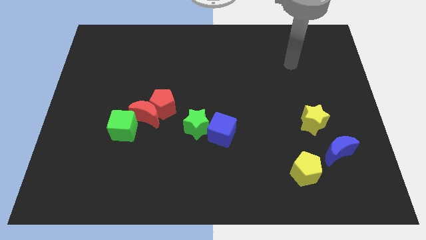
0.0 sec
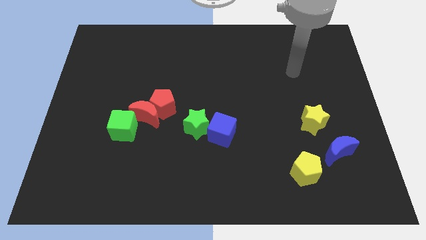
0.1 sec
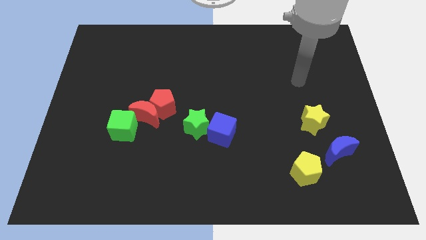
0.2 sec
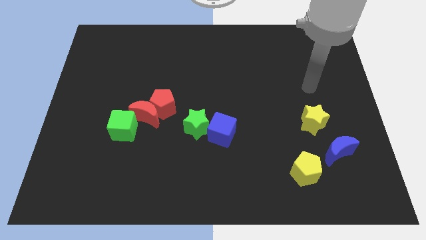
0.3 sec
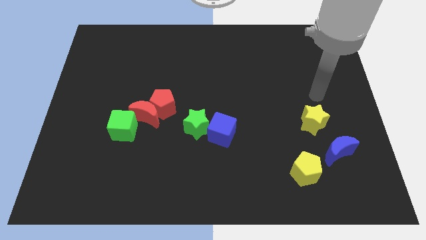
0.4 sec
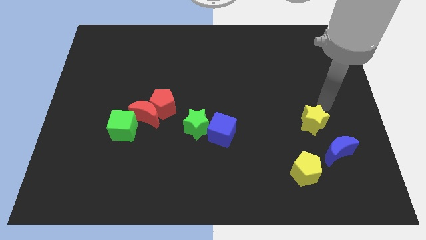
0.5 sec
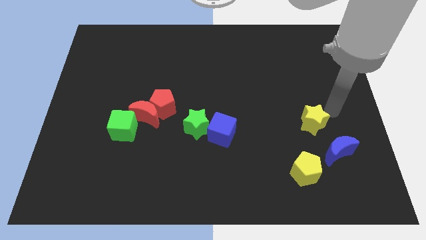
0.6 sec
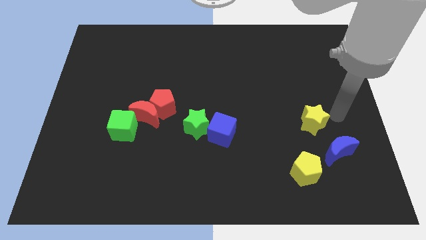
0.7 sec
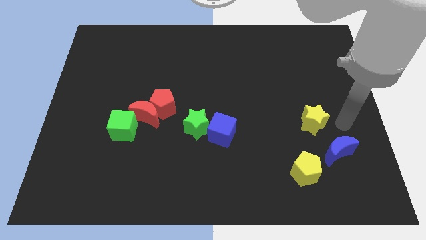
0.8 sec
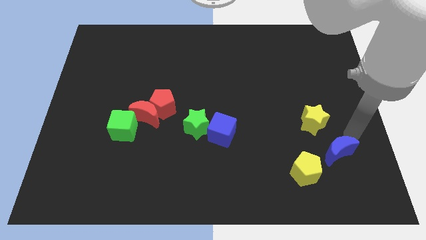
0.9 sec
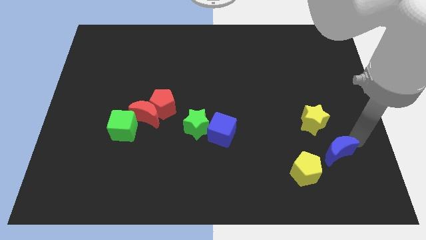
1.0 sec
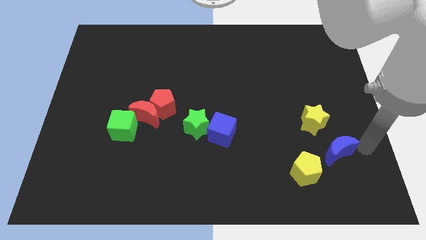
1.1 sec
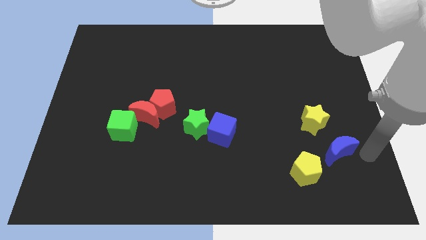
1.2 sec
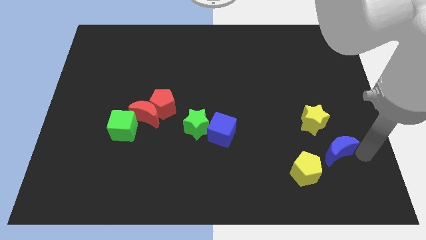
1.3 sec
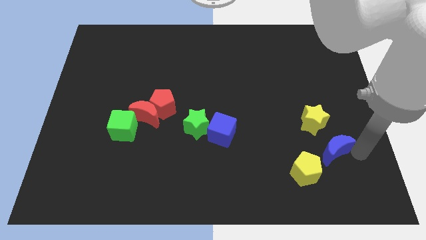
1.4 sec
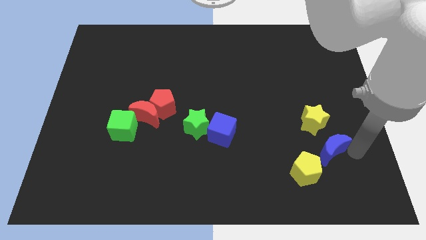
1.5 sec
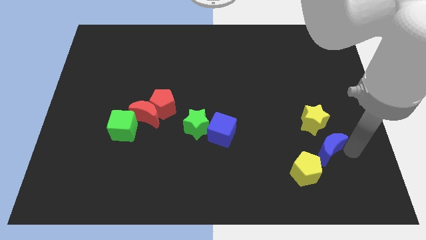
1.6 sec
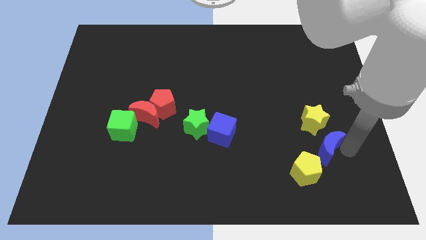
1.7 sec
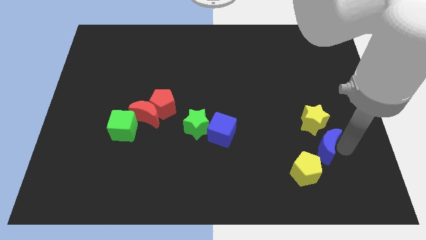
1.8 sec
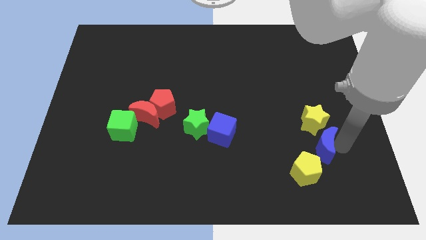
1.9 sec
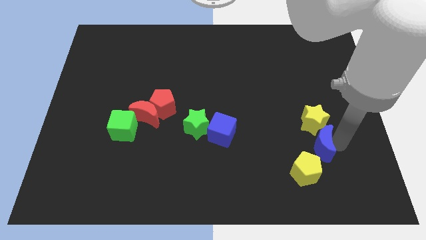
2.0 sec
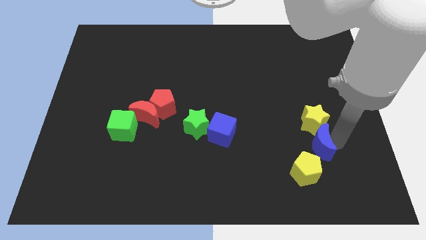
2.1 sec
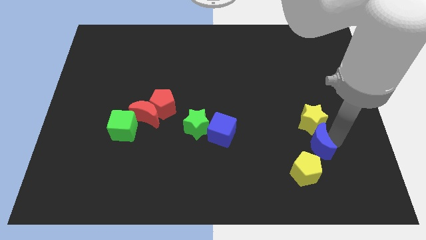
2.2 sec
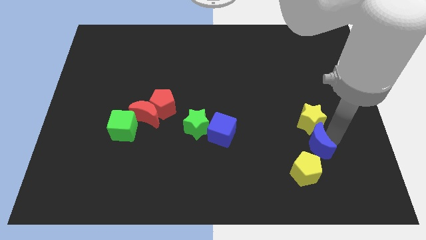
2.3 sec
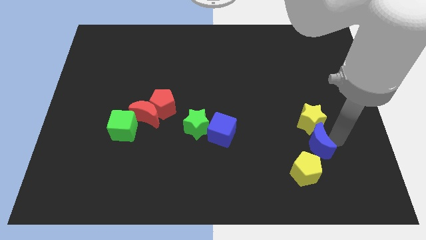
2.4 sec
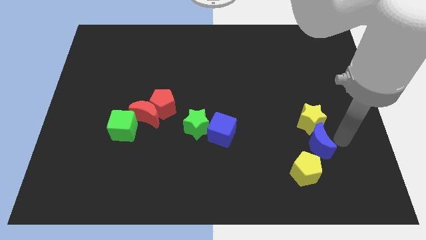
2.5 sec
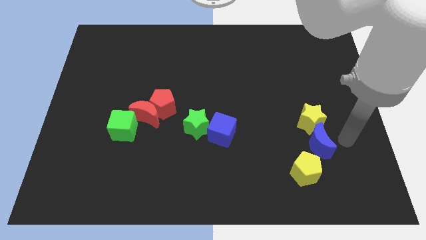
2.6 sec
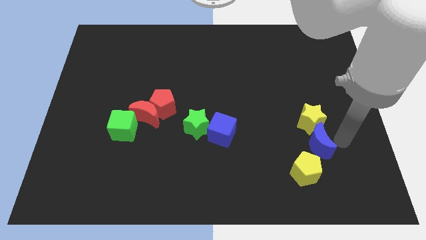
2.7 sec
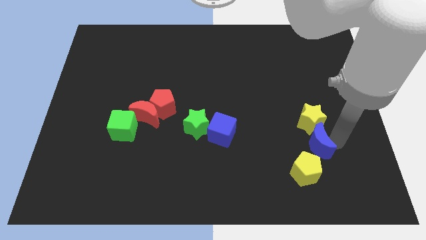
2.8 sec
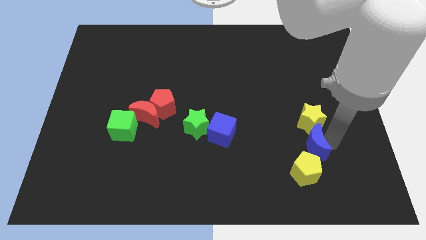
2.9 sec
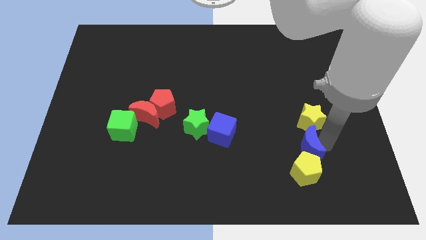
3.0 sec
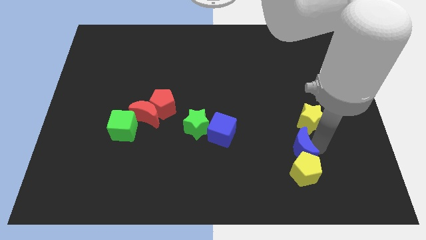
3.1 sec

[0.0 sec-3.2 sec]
slide the blue moon somewhat to the left

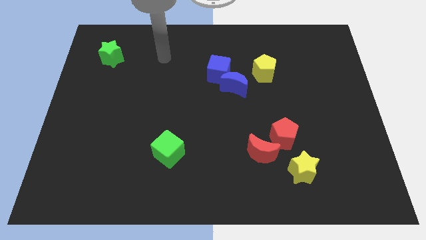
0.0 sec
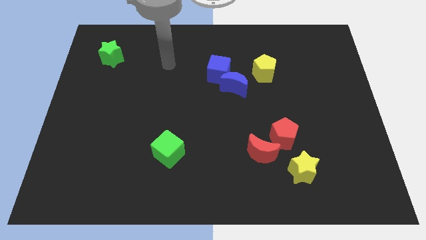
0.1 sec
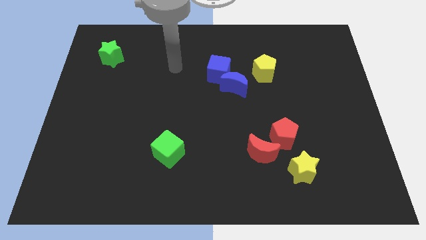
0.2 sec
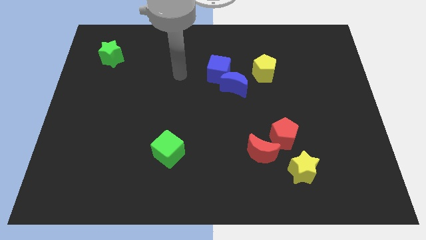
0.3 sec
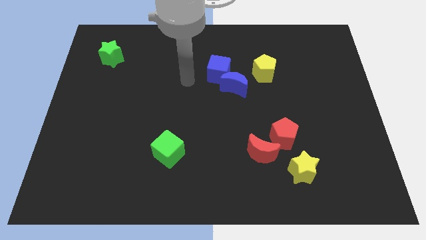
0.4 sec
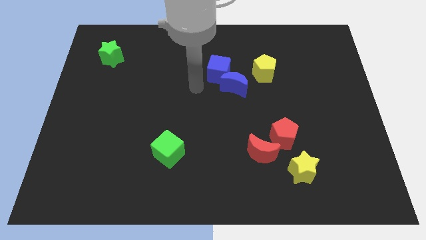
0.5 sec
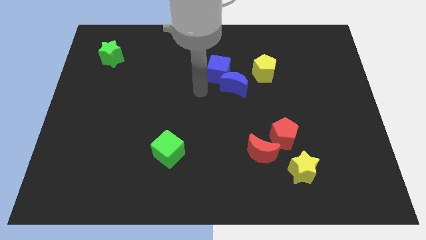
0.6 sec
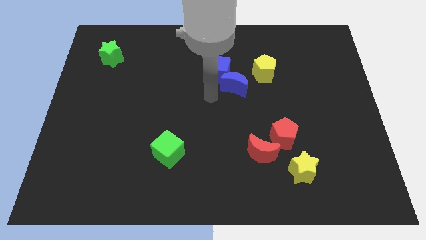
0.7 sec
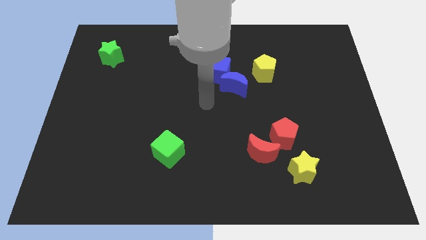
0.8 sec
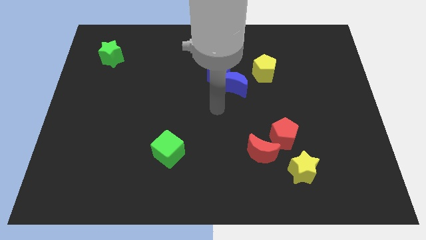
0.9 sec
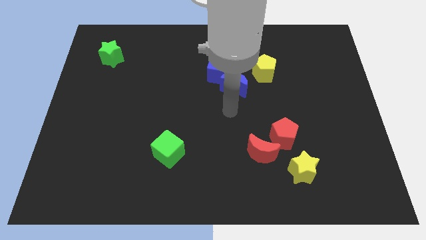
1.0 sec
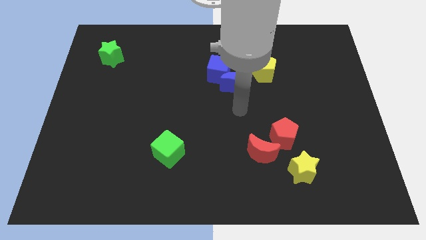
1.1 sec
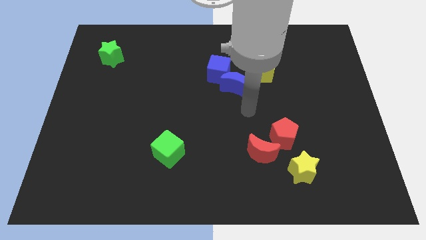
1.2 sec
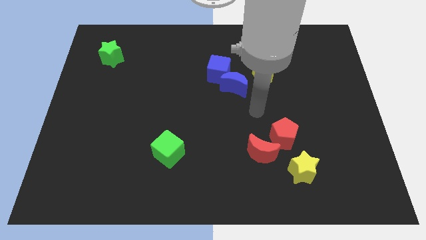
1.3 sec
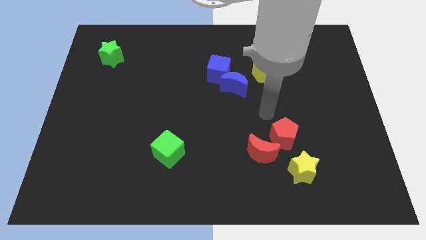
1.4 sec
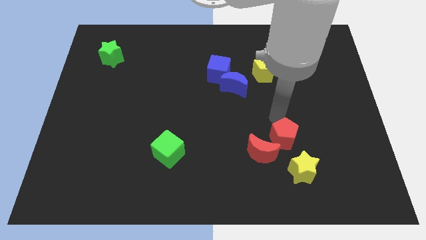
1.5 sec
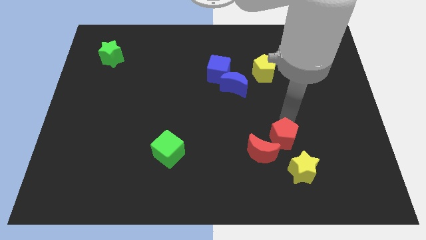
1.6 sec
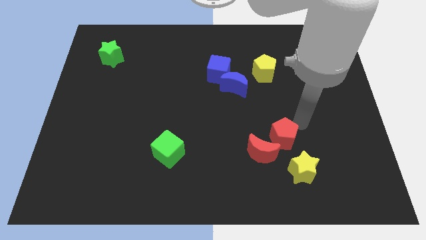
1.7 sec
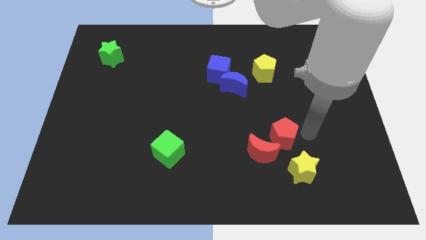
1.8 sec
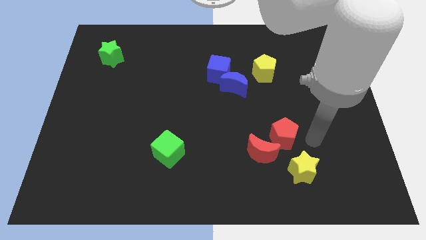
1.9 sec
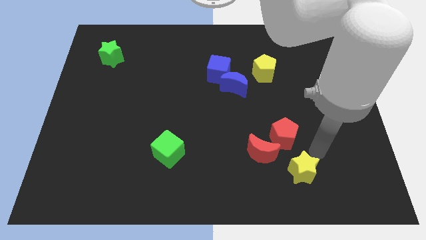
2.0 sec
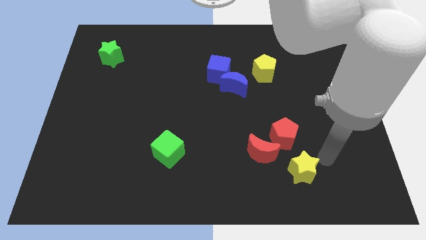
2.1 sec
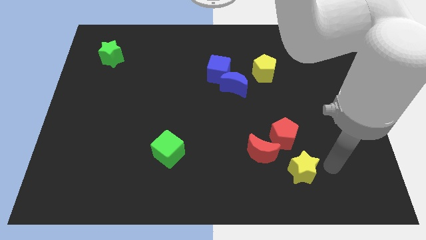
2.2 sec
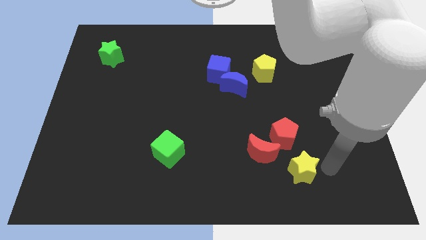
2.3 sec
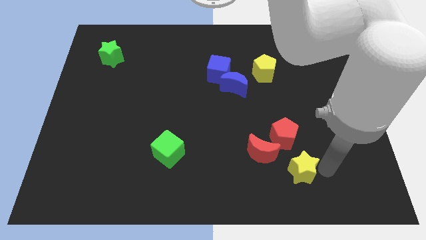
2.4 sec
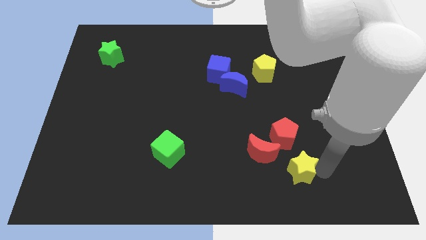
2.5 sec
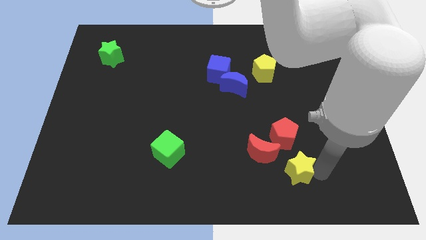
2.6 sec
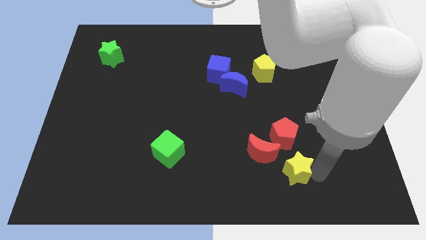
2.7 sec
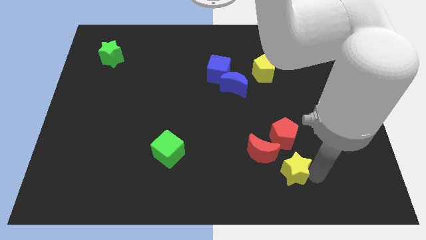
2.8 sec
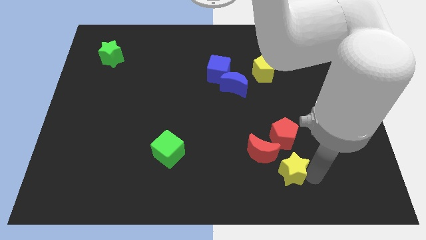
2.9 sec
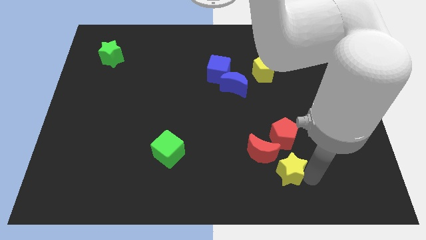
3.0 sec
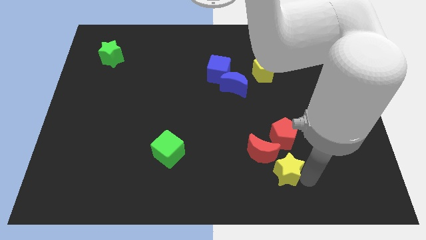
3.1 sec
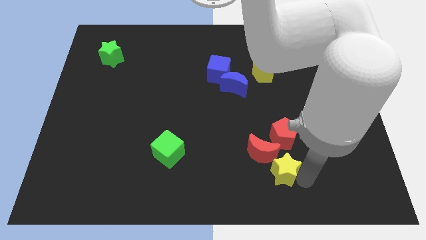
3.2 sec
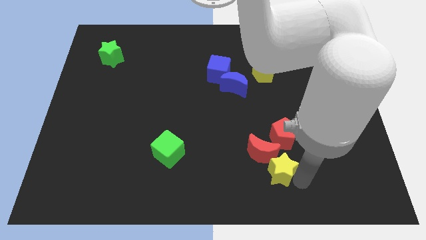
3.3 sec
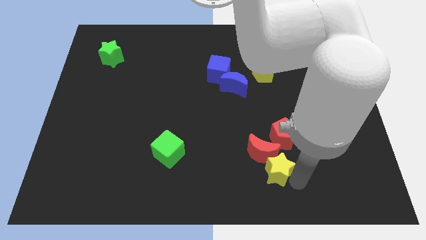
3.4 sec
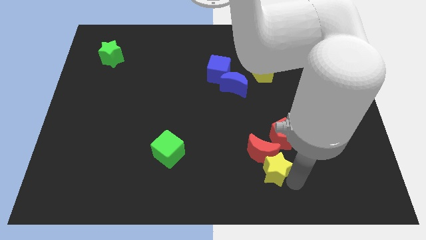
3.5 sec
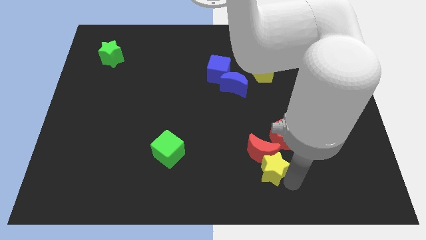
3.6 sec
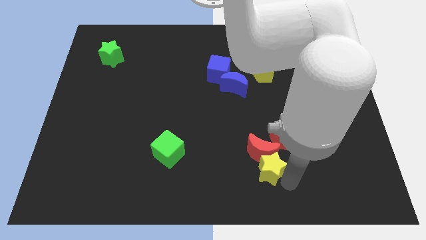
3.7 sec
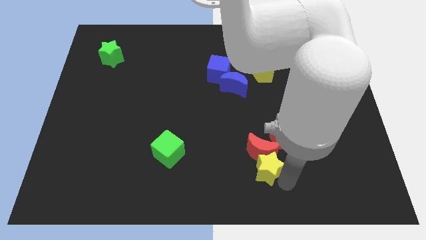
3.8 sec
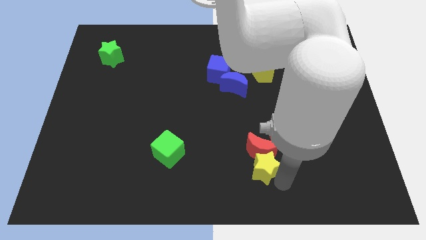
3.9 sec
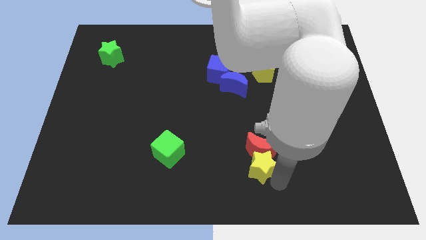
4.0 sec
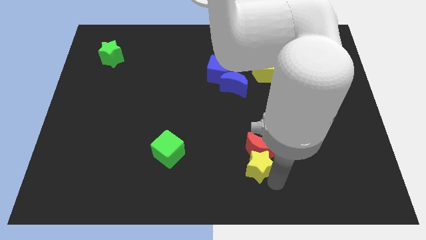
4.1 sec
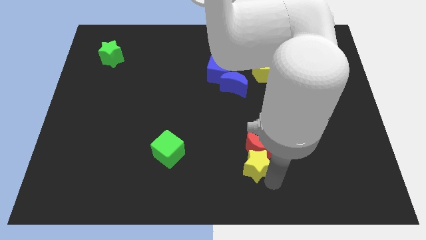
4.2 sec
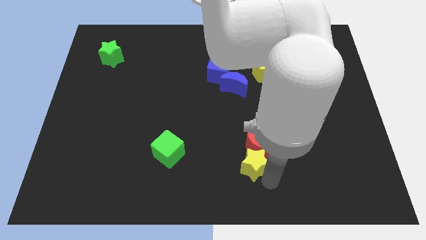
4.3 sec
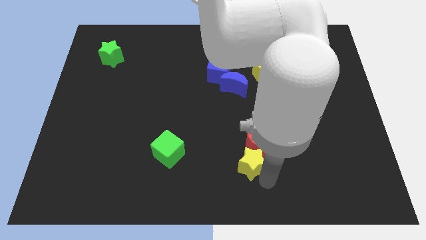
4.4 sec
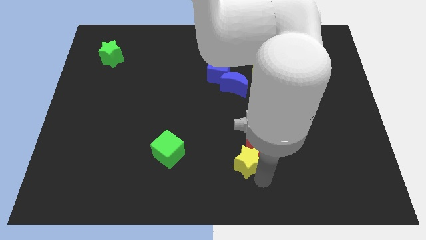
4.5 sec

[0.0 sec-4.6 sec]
slightly push the yellow star up and to the left diagonally
